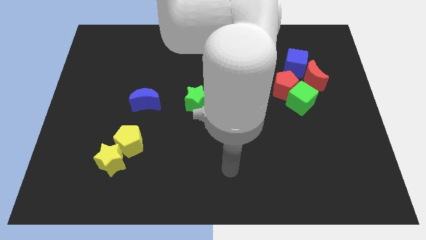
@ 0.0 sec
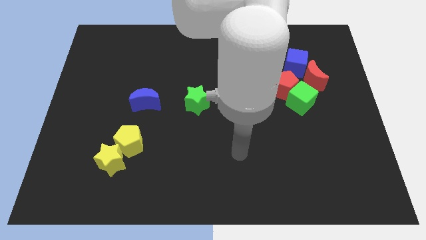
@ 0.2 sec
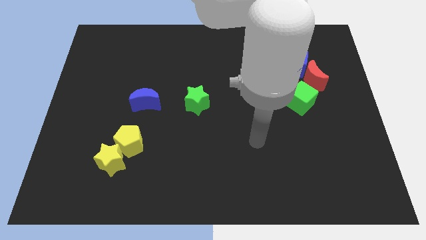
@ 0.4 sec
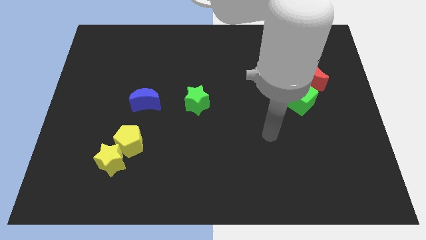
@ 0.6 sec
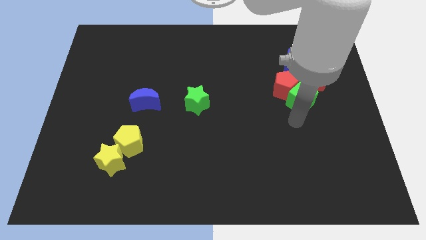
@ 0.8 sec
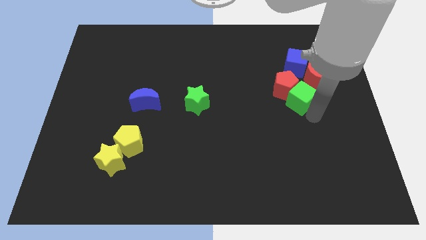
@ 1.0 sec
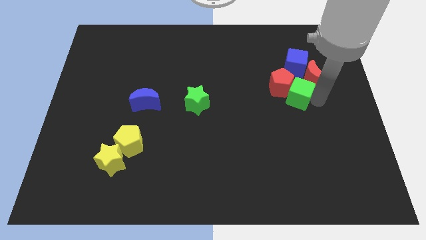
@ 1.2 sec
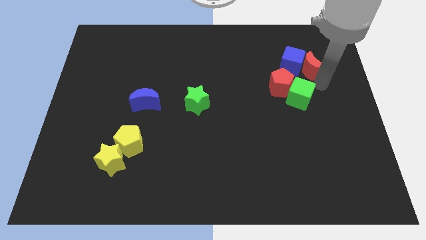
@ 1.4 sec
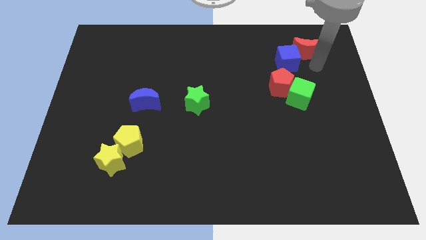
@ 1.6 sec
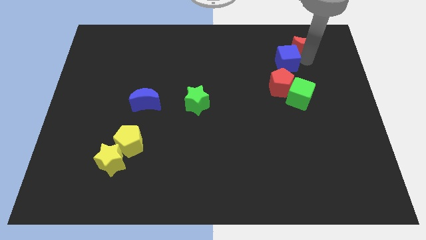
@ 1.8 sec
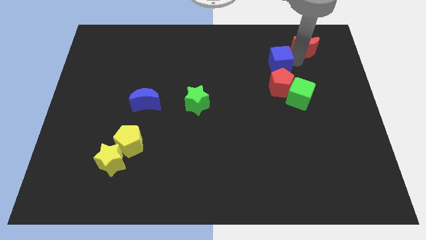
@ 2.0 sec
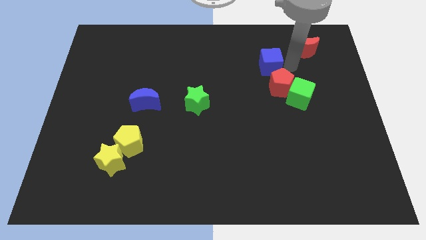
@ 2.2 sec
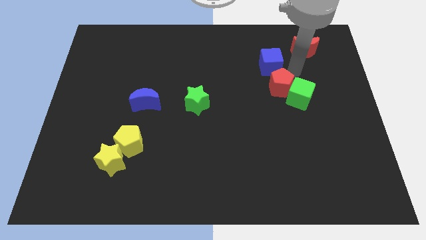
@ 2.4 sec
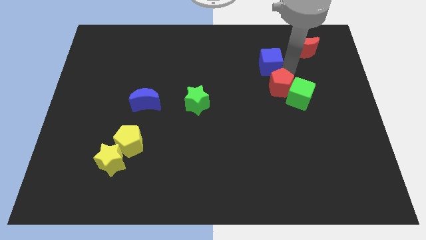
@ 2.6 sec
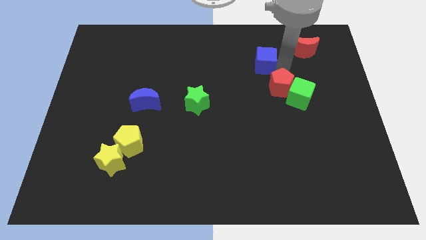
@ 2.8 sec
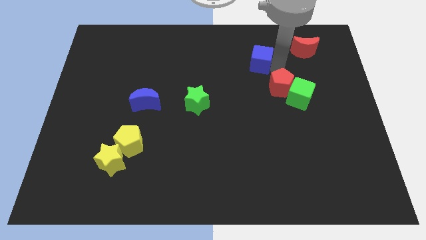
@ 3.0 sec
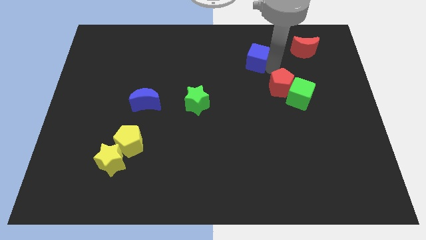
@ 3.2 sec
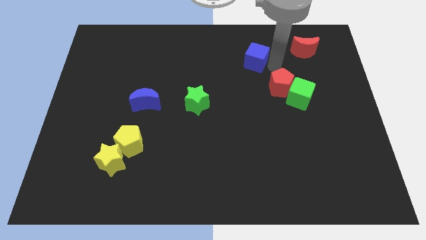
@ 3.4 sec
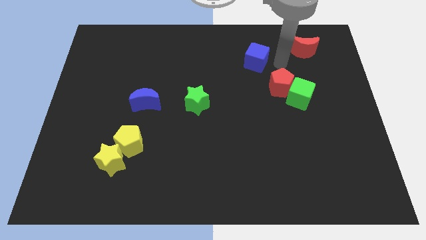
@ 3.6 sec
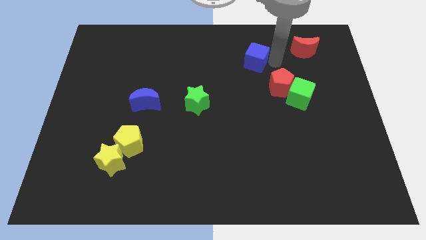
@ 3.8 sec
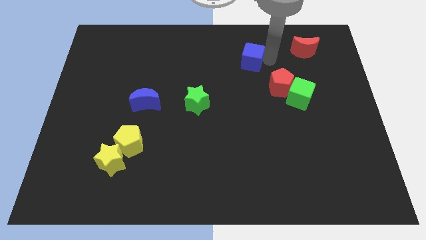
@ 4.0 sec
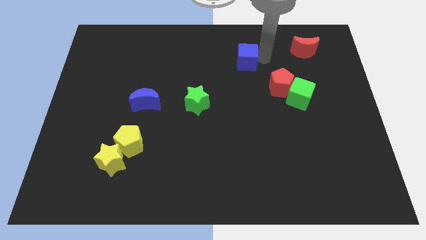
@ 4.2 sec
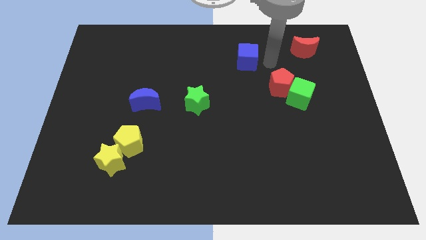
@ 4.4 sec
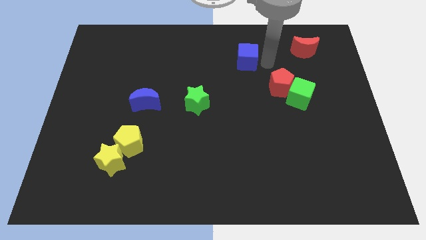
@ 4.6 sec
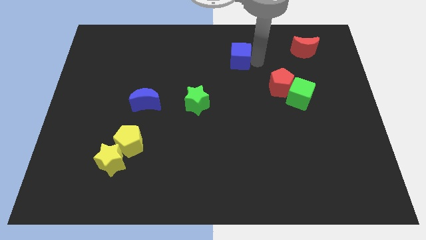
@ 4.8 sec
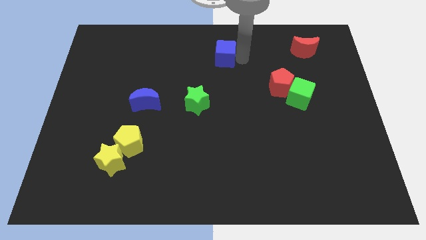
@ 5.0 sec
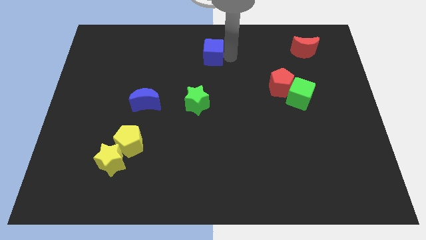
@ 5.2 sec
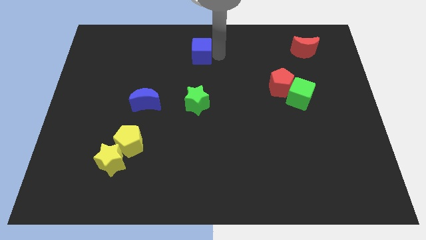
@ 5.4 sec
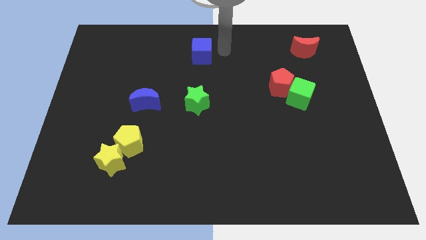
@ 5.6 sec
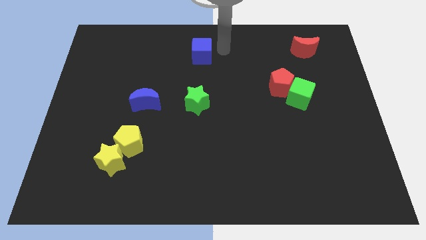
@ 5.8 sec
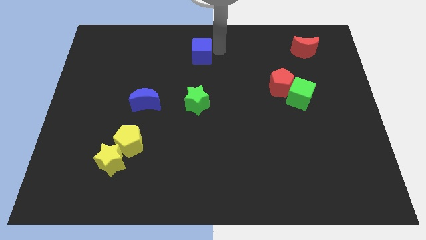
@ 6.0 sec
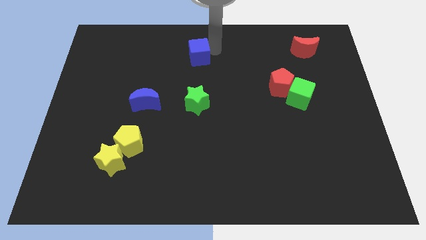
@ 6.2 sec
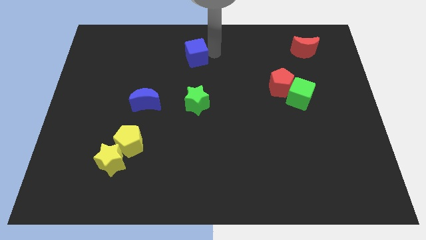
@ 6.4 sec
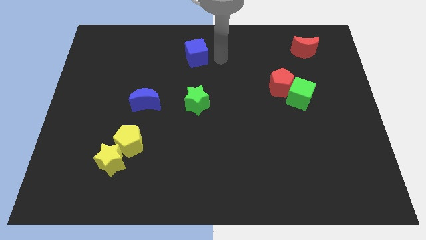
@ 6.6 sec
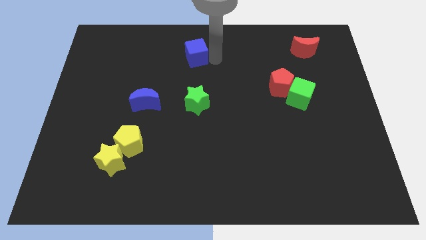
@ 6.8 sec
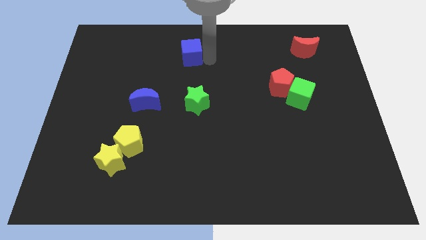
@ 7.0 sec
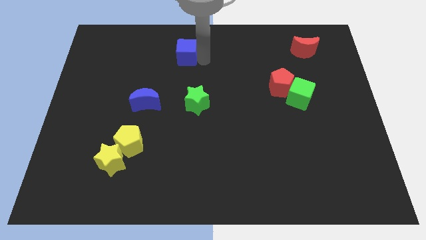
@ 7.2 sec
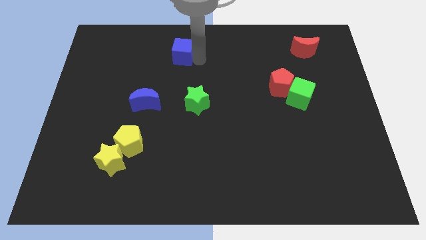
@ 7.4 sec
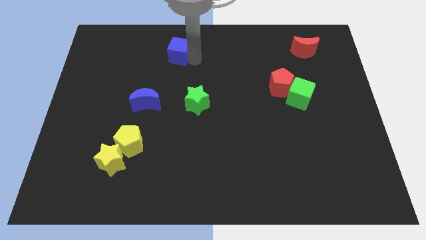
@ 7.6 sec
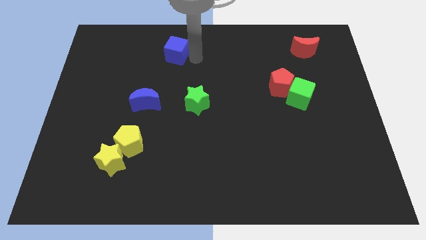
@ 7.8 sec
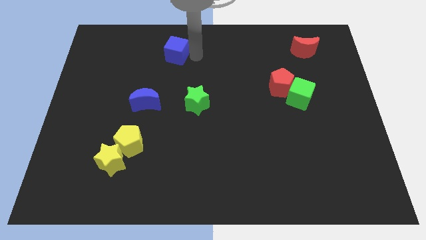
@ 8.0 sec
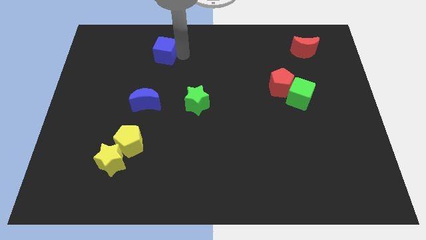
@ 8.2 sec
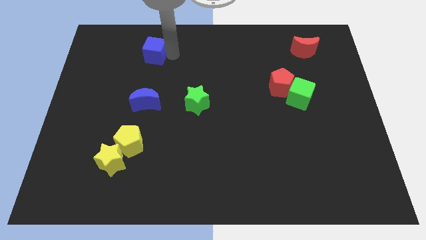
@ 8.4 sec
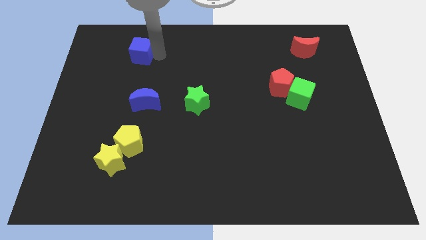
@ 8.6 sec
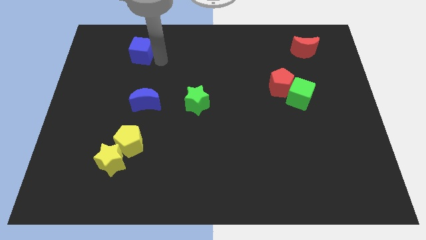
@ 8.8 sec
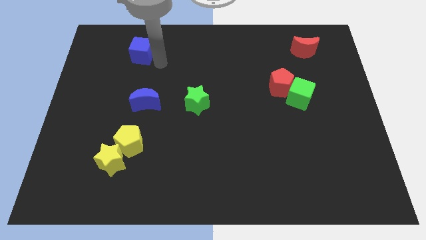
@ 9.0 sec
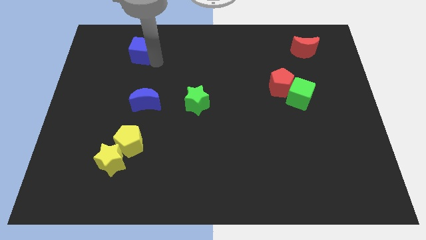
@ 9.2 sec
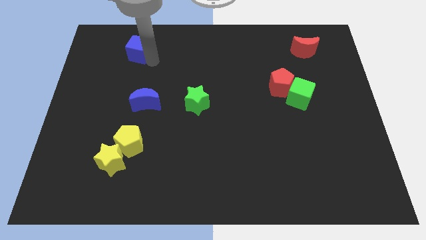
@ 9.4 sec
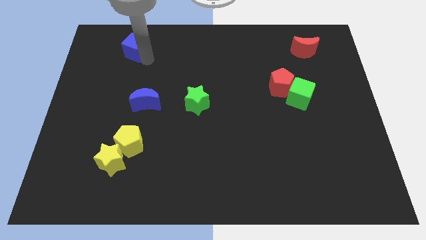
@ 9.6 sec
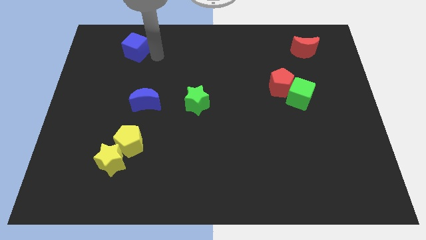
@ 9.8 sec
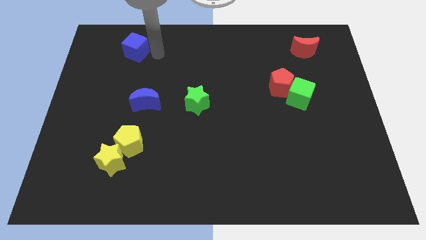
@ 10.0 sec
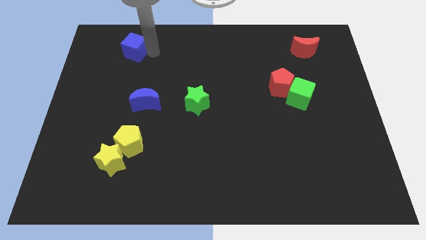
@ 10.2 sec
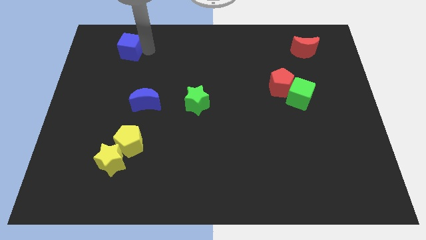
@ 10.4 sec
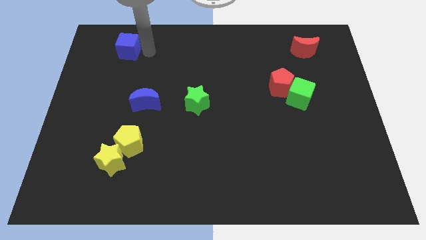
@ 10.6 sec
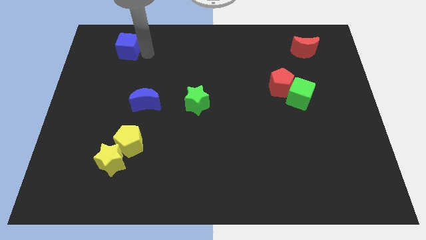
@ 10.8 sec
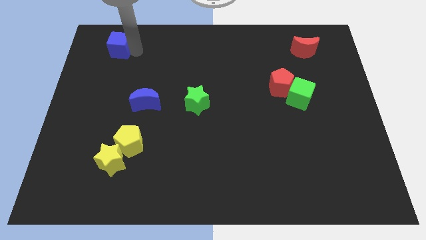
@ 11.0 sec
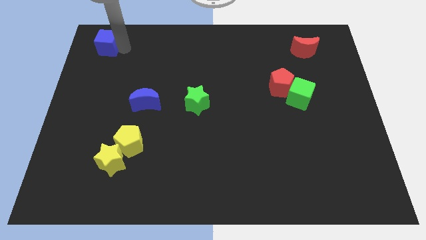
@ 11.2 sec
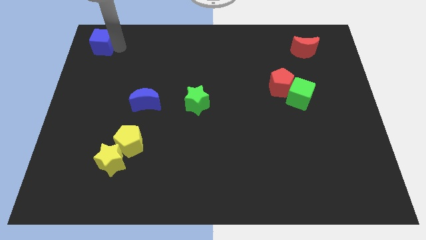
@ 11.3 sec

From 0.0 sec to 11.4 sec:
put the blue cube to the upper left corner

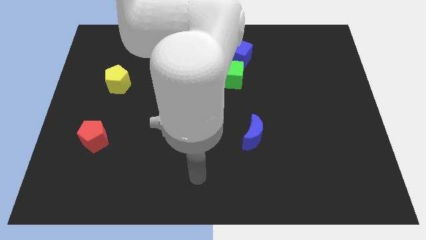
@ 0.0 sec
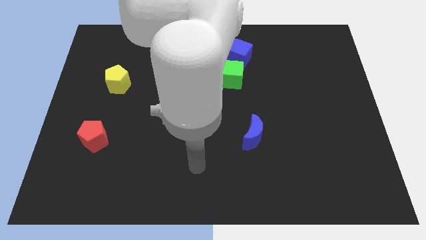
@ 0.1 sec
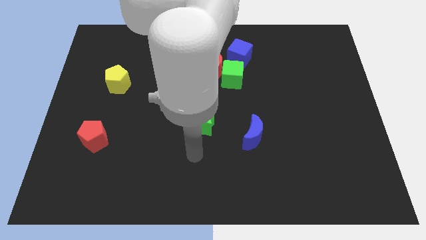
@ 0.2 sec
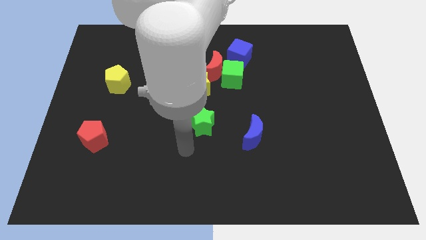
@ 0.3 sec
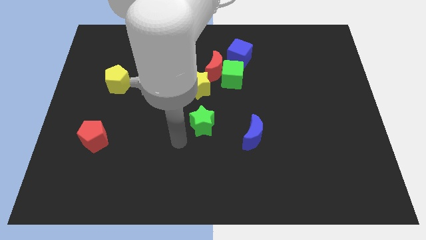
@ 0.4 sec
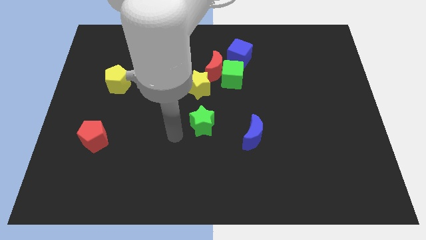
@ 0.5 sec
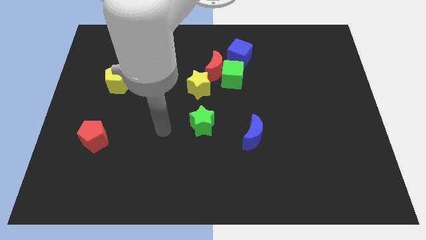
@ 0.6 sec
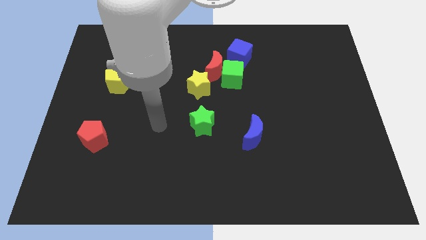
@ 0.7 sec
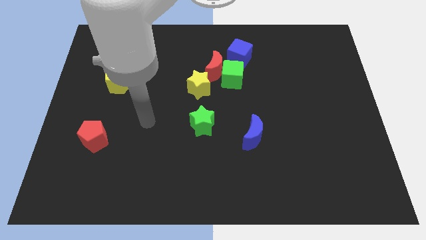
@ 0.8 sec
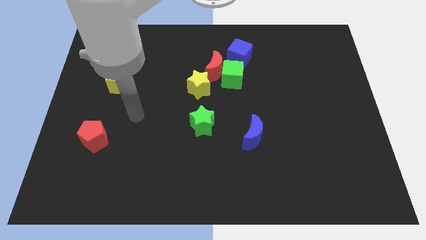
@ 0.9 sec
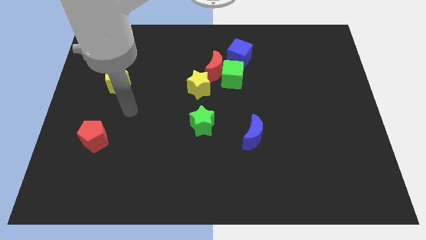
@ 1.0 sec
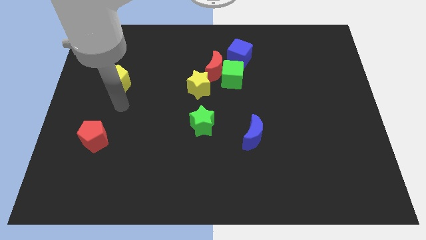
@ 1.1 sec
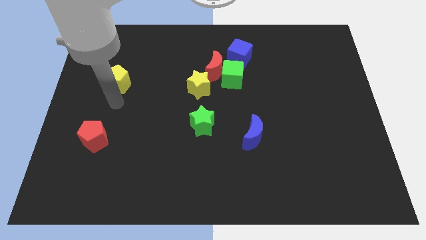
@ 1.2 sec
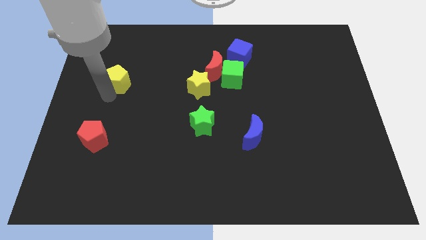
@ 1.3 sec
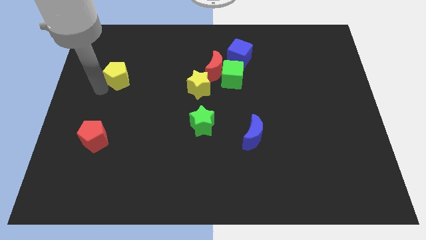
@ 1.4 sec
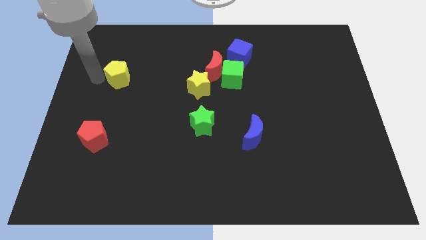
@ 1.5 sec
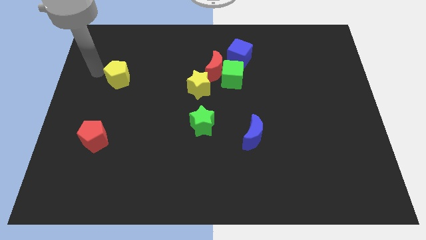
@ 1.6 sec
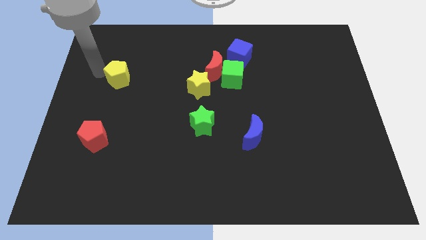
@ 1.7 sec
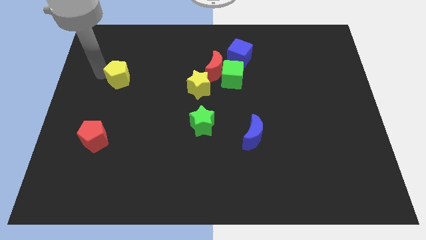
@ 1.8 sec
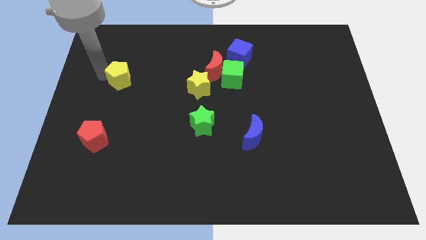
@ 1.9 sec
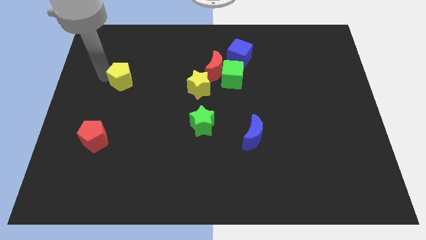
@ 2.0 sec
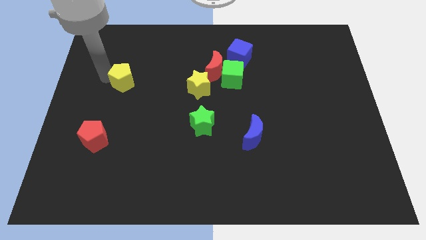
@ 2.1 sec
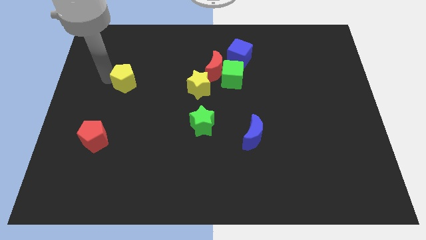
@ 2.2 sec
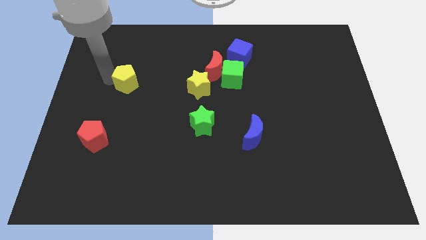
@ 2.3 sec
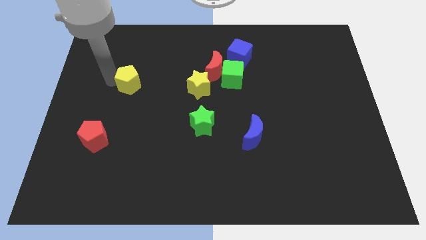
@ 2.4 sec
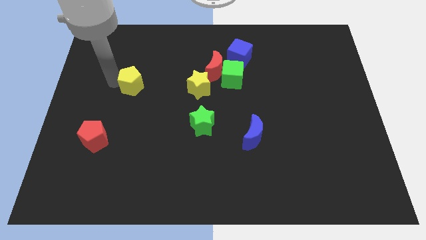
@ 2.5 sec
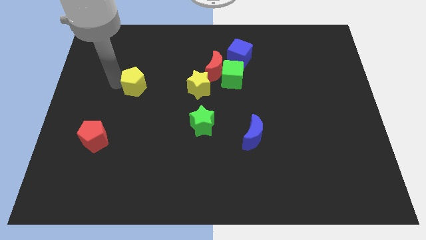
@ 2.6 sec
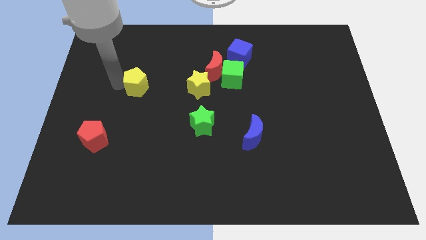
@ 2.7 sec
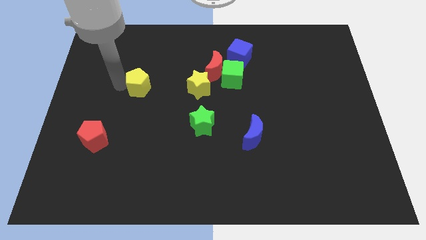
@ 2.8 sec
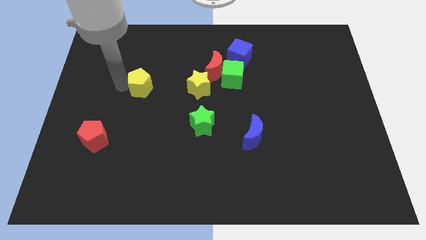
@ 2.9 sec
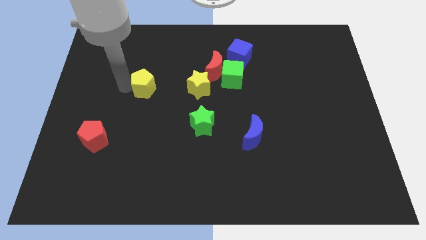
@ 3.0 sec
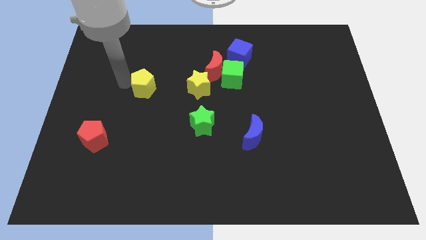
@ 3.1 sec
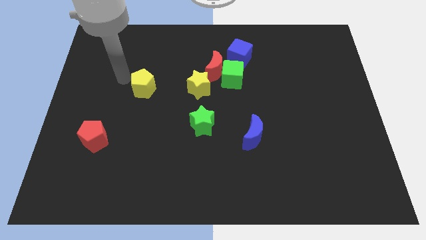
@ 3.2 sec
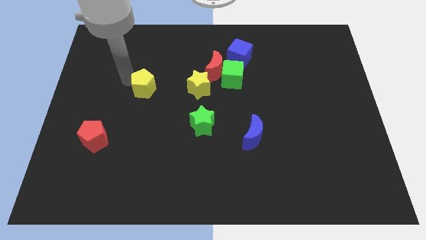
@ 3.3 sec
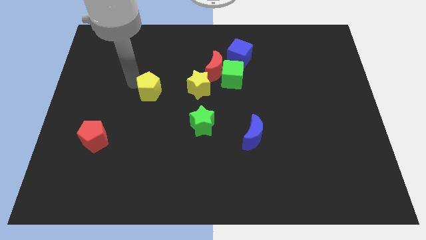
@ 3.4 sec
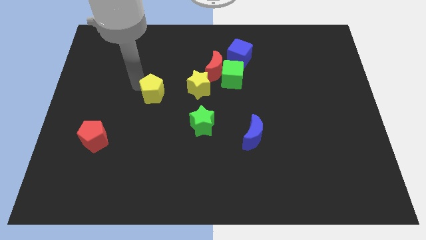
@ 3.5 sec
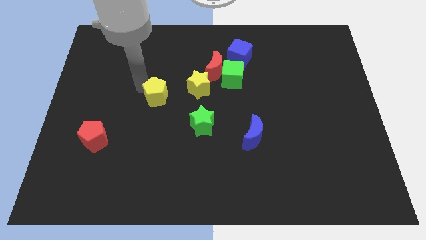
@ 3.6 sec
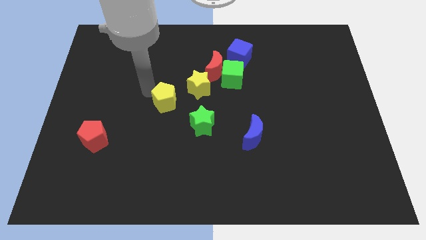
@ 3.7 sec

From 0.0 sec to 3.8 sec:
move the yellow pentagon to the middle of the board
